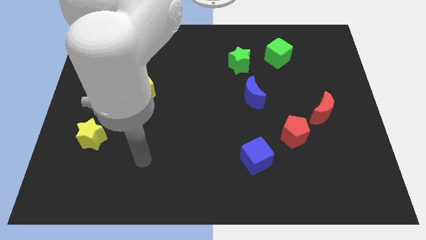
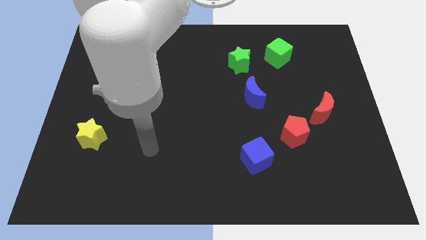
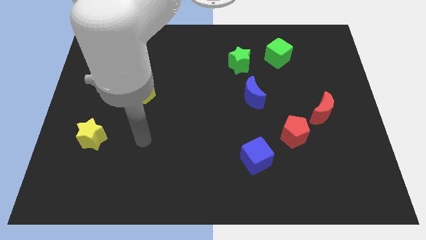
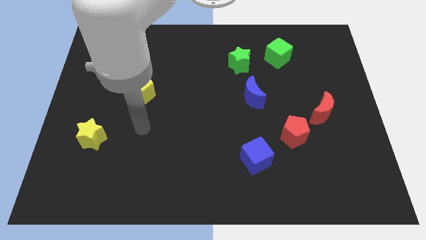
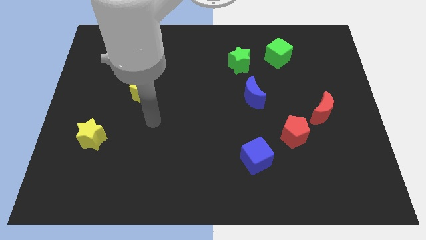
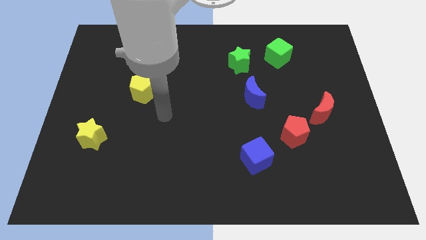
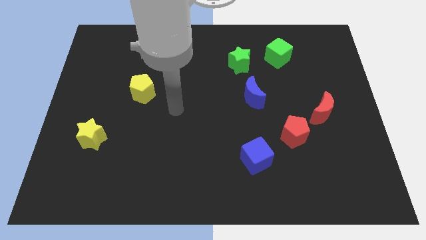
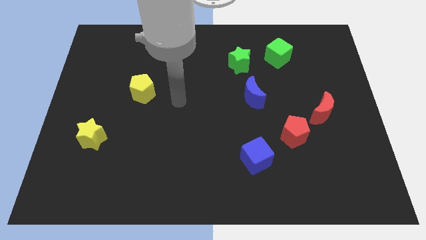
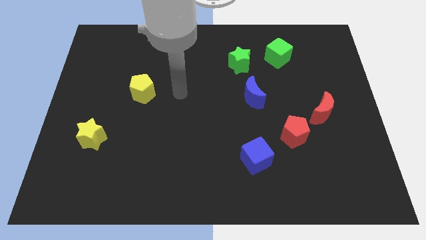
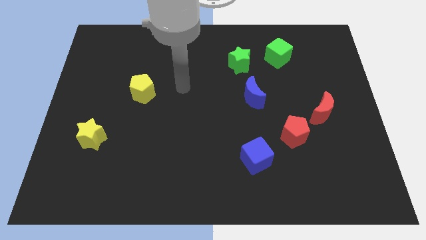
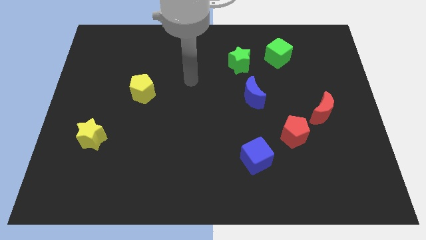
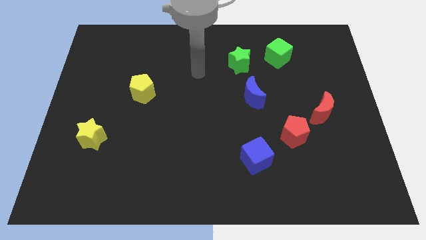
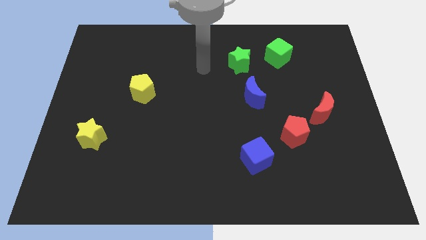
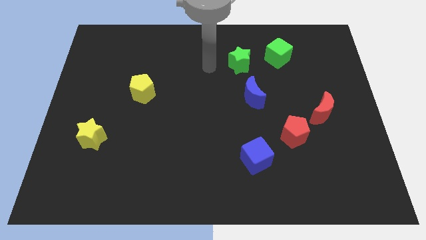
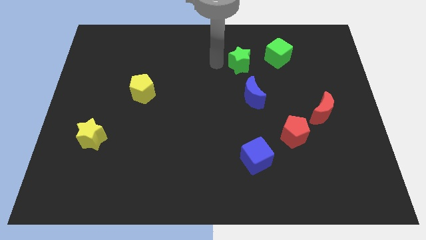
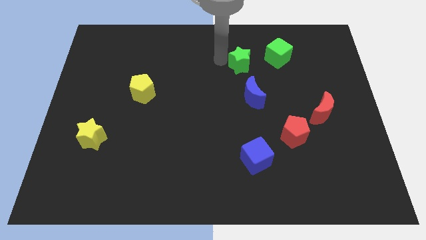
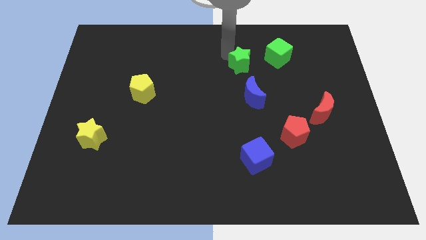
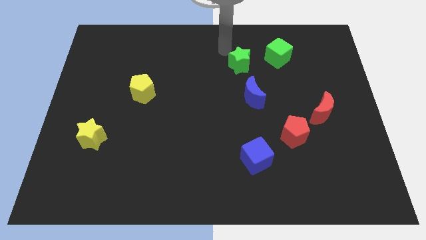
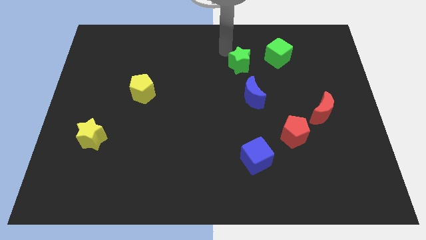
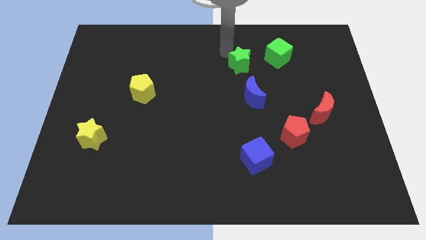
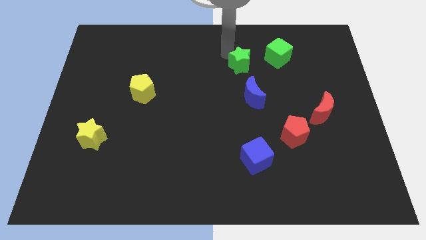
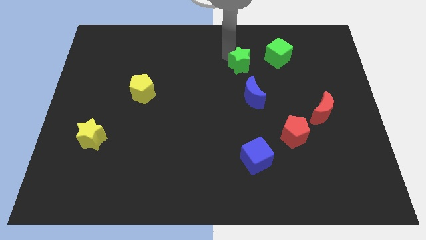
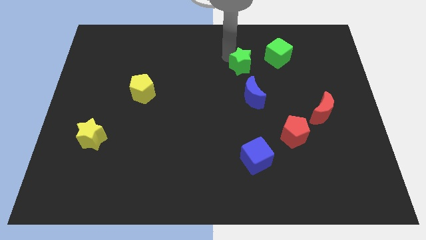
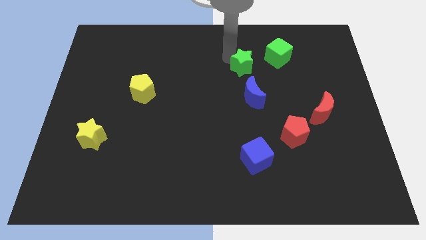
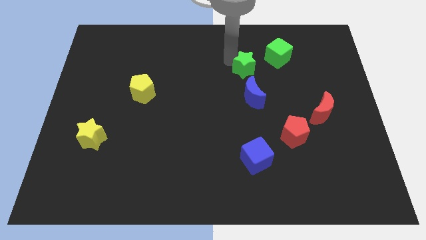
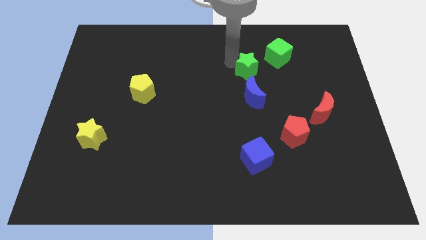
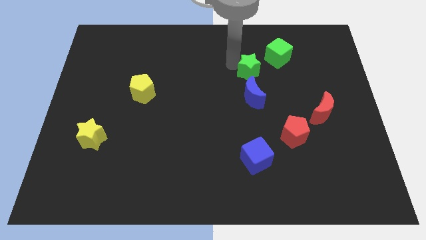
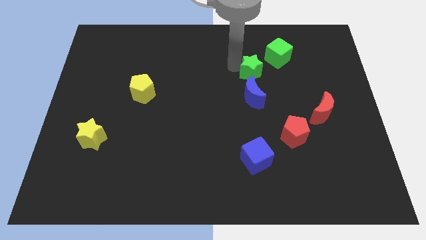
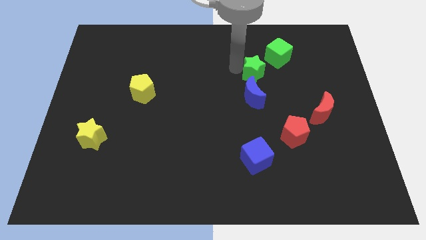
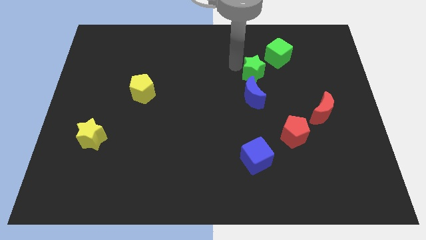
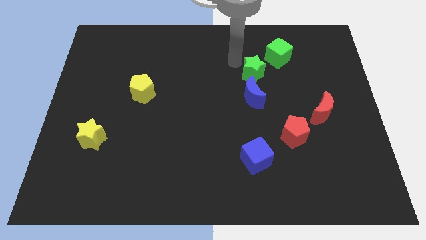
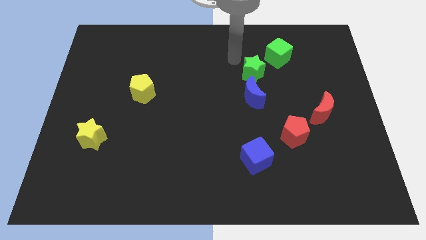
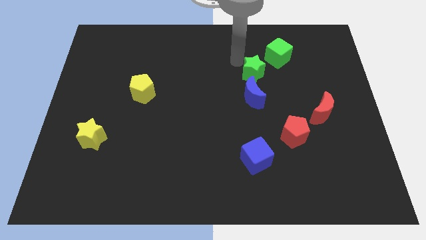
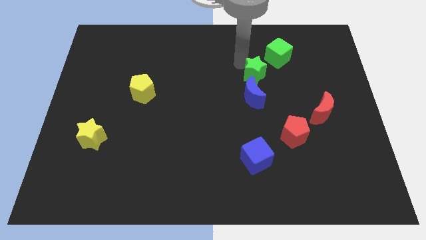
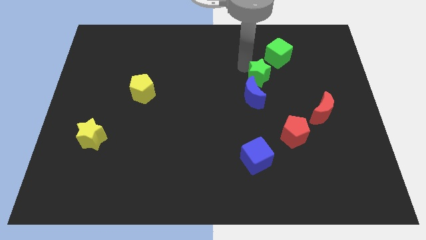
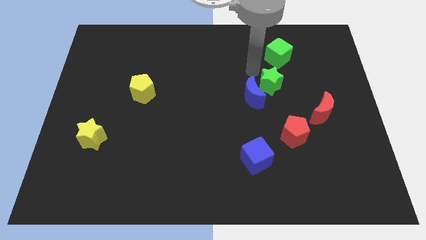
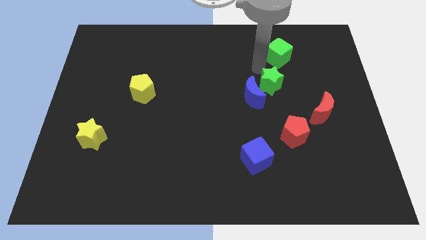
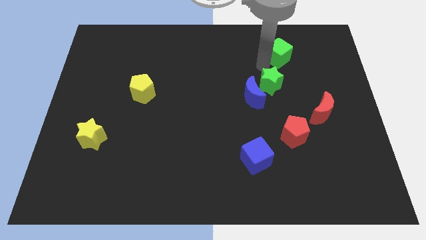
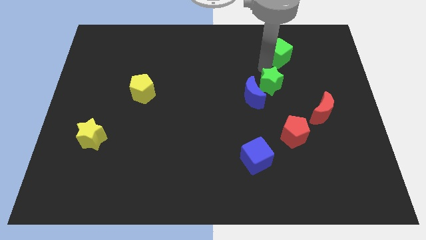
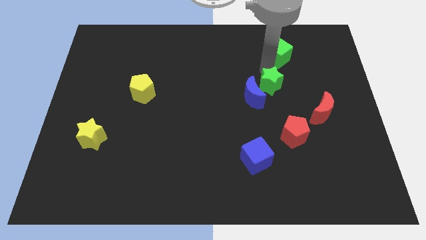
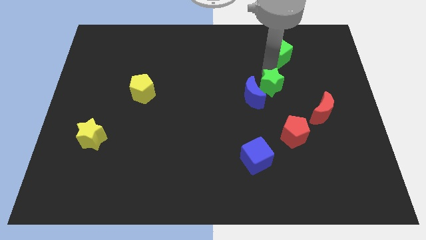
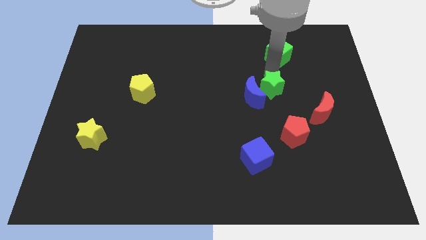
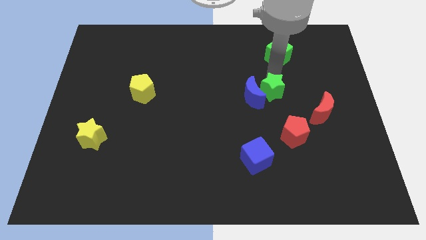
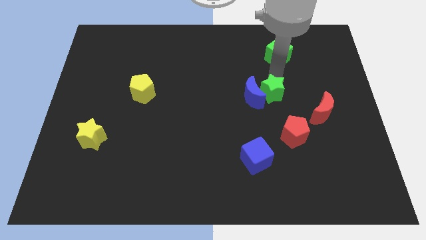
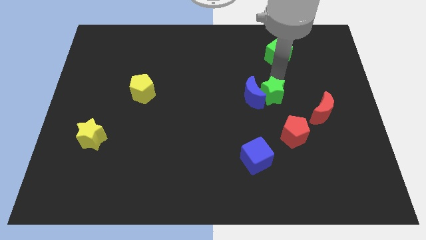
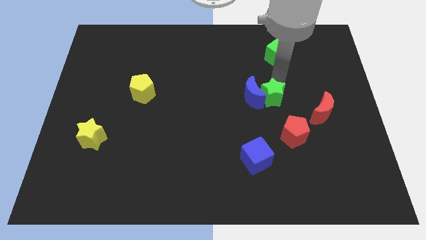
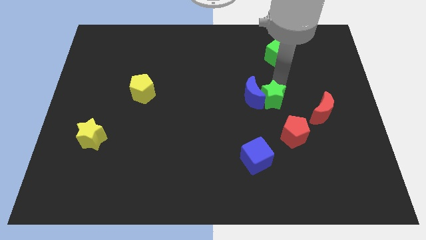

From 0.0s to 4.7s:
push the green star just left of the red moon

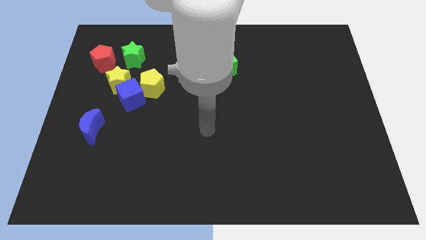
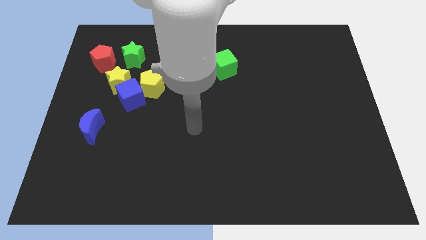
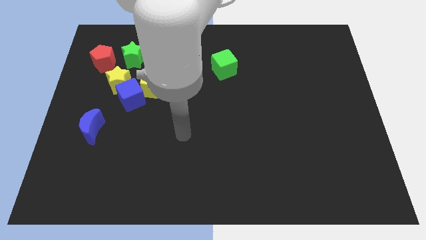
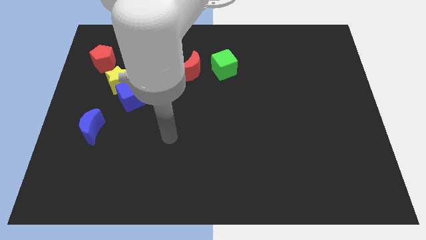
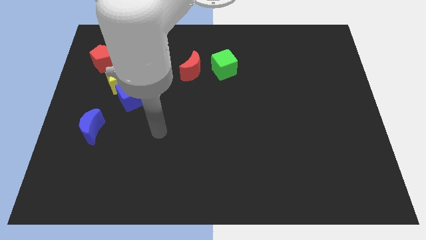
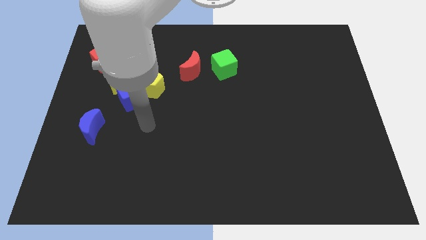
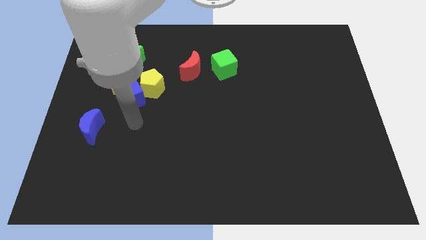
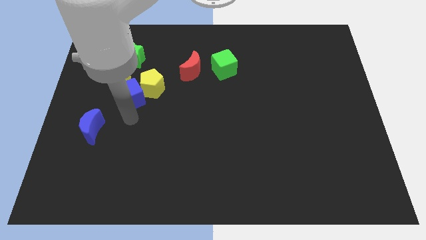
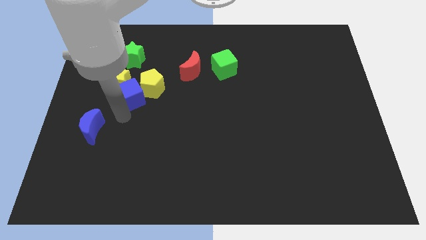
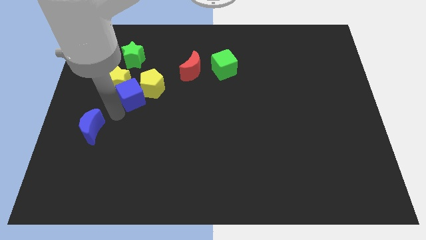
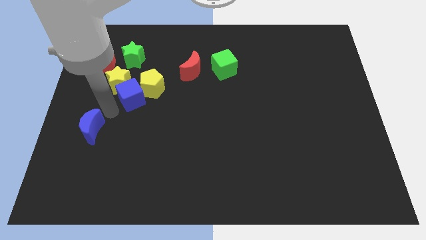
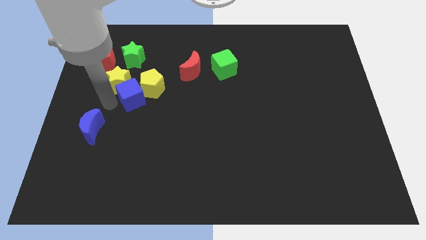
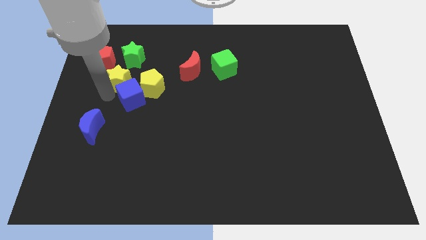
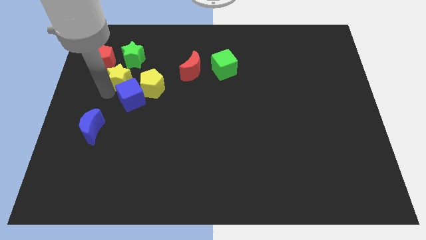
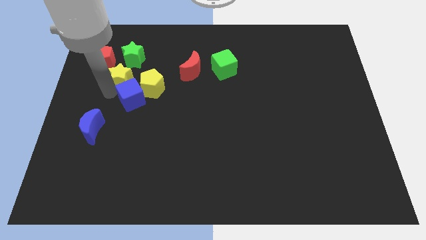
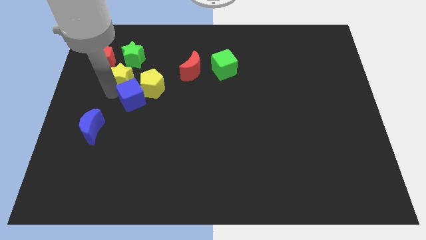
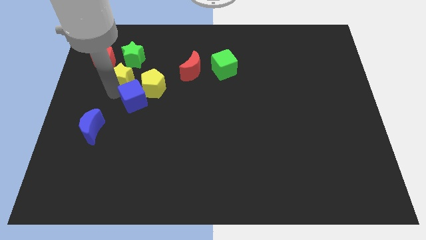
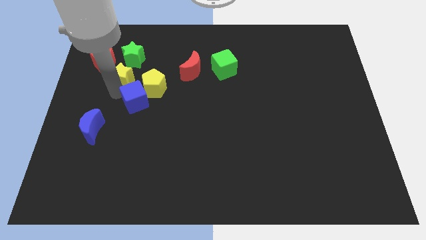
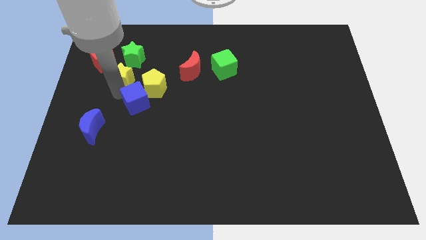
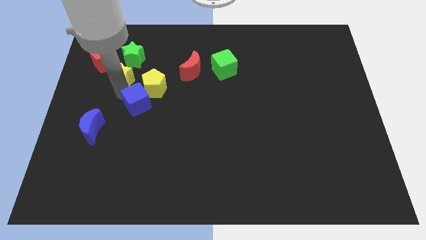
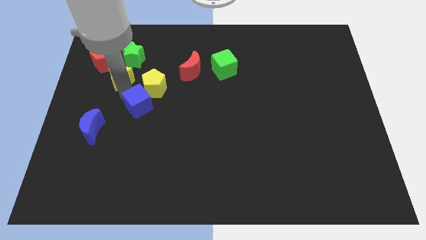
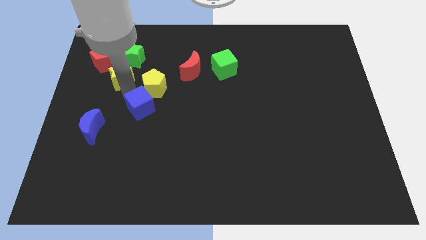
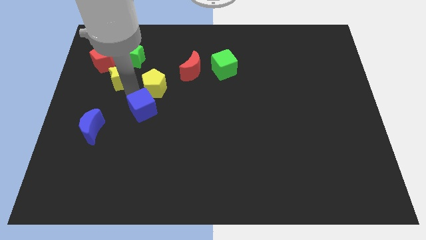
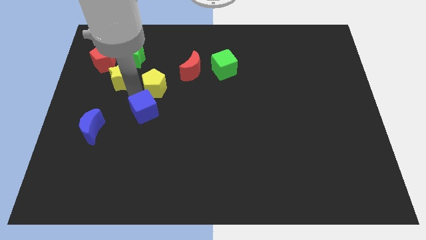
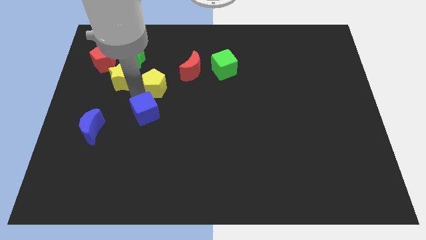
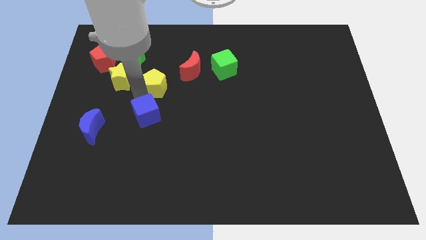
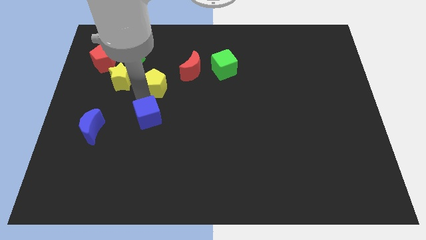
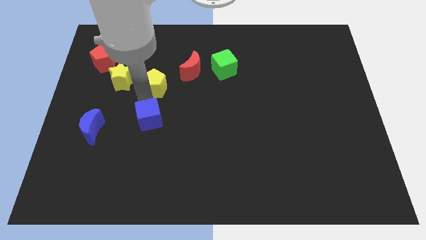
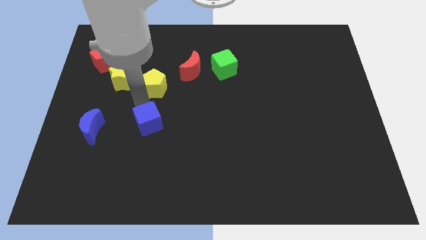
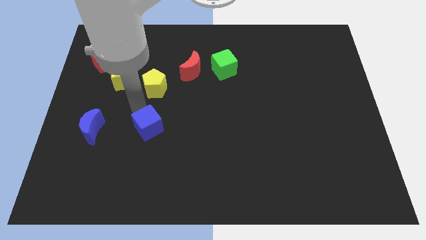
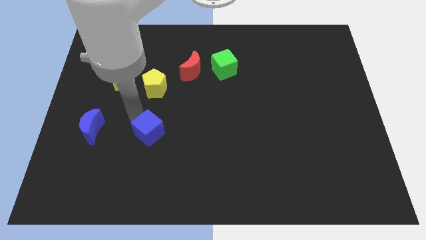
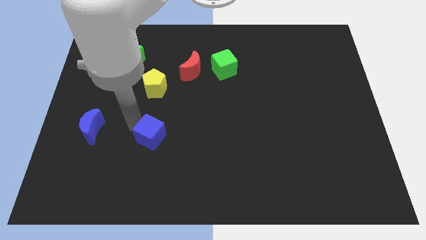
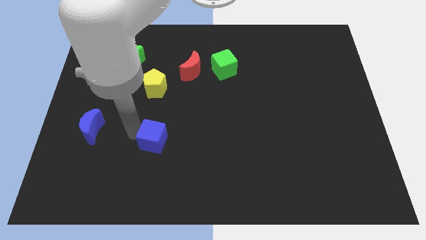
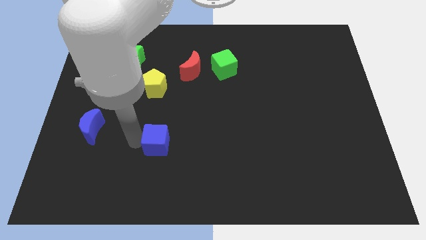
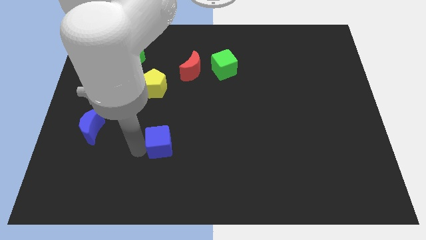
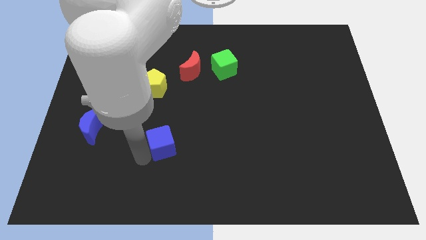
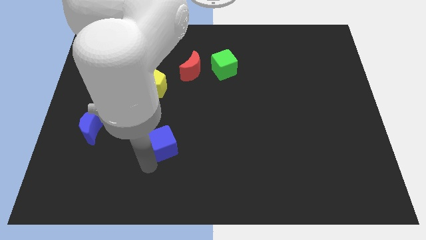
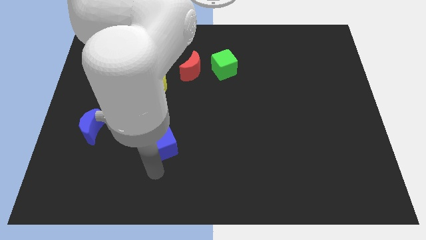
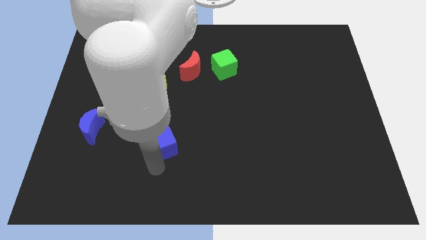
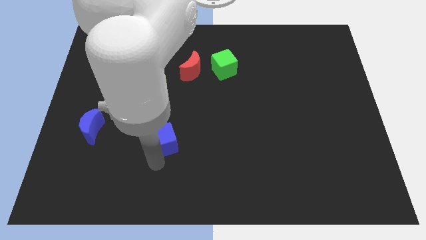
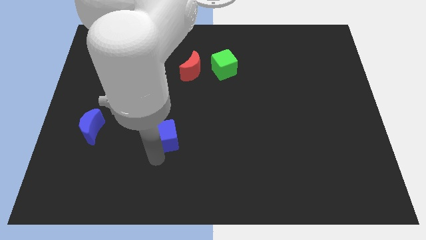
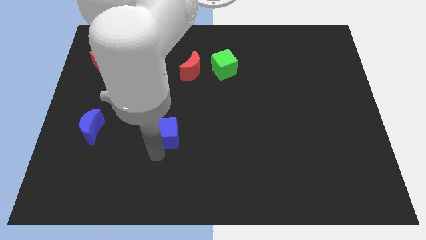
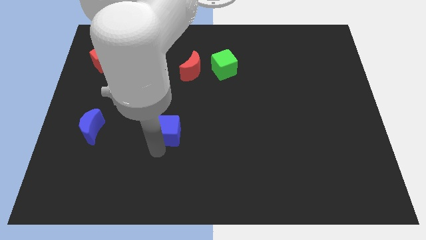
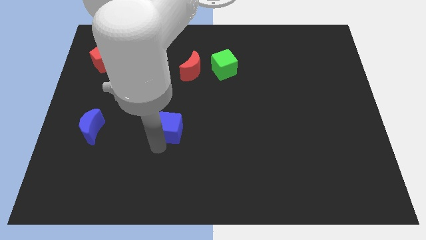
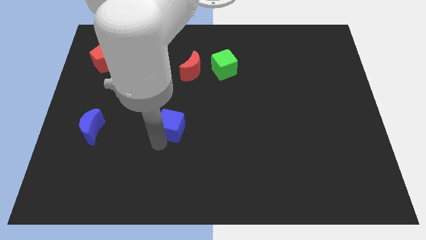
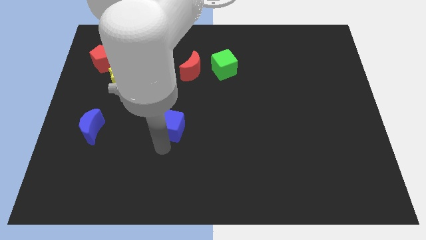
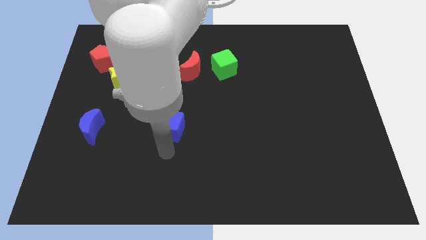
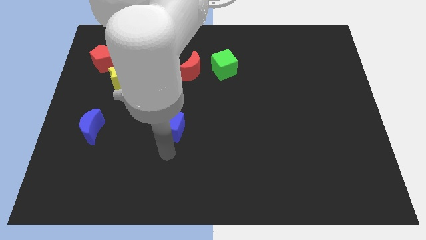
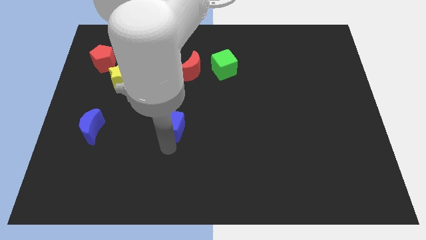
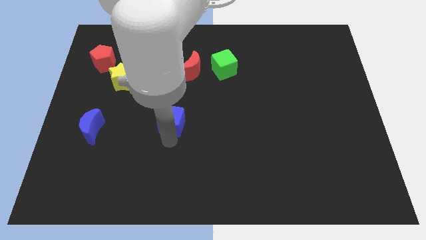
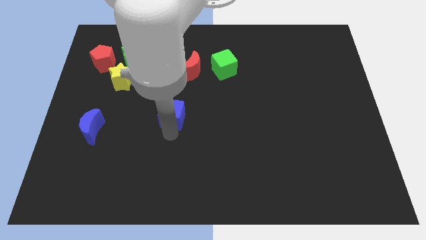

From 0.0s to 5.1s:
push the blue cube to the bottom right side of the yellow pentagon
